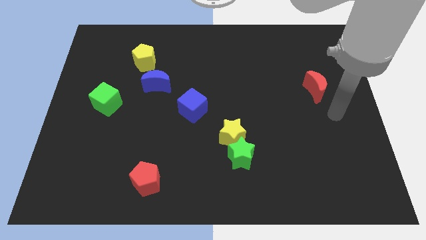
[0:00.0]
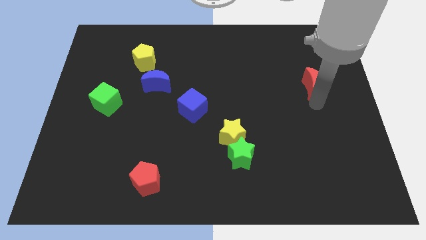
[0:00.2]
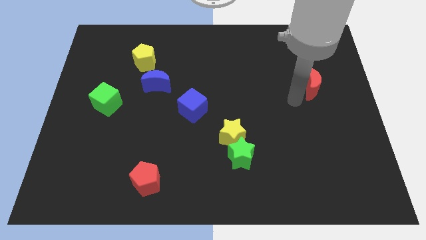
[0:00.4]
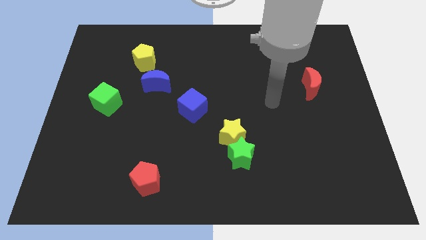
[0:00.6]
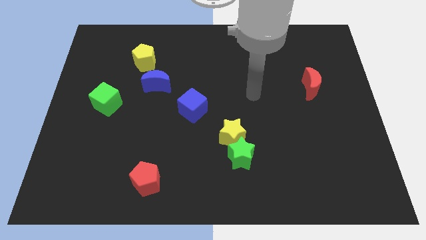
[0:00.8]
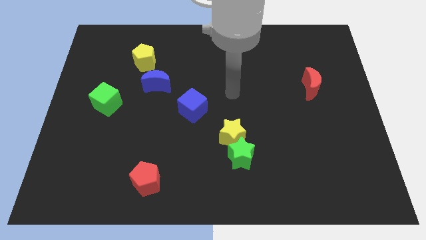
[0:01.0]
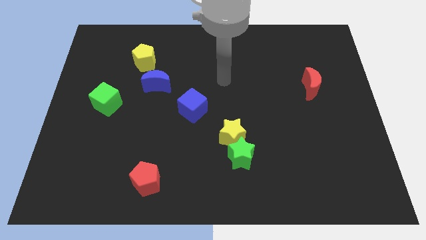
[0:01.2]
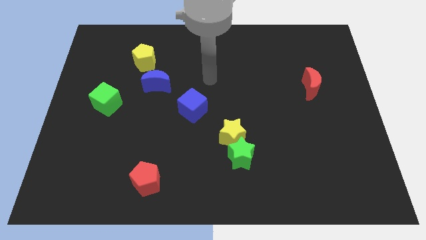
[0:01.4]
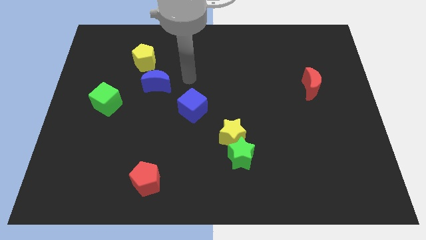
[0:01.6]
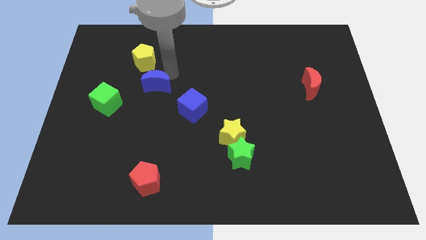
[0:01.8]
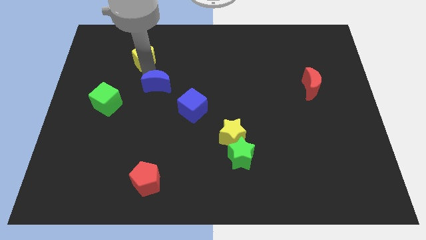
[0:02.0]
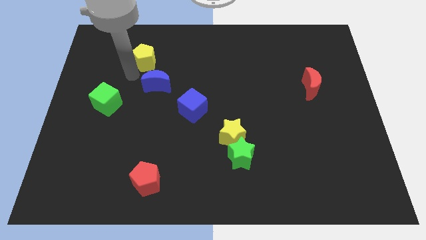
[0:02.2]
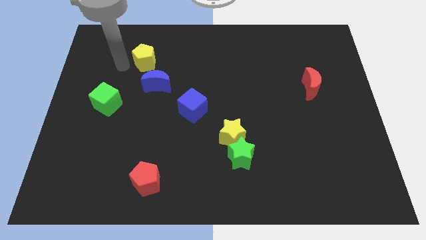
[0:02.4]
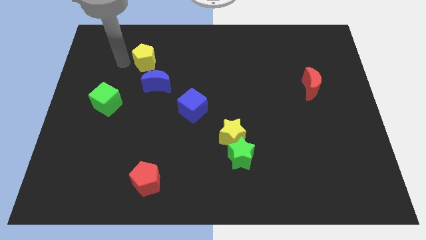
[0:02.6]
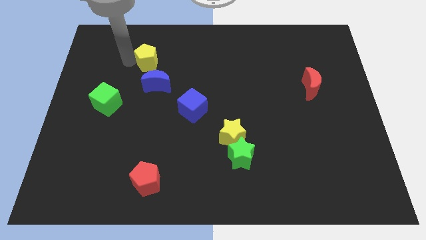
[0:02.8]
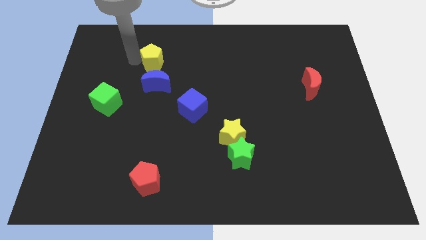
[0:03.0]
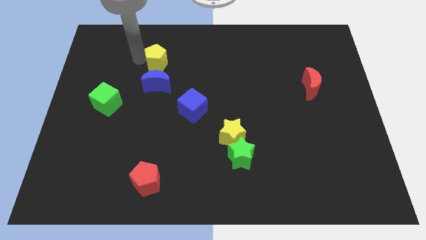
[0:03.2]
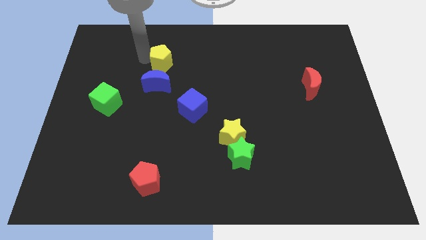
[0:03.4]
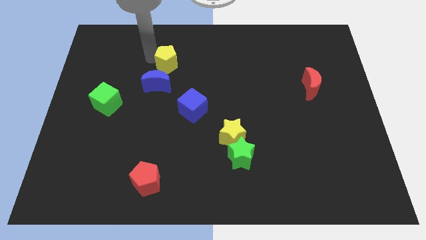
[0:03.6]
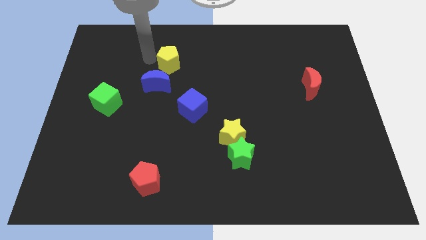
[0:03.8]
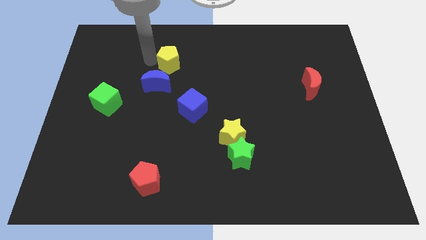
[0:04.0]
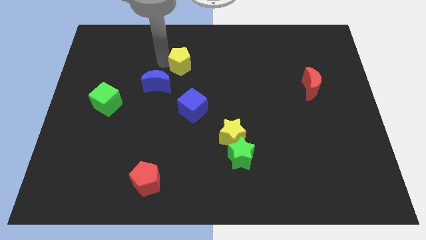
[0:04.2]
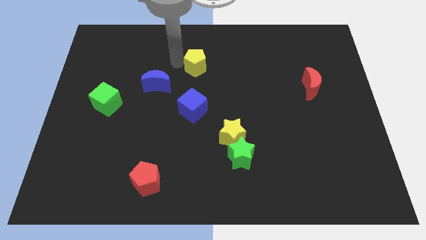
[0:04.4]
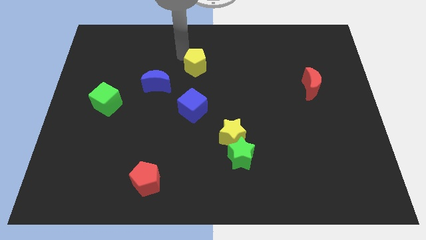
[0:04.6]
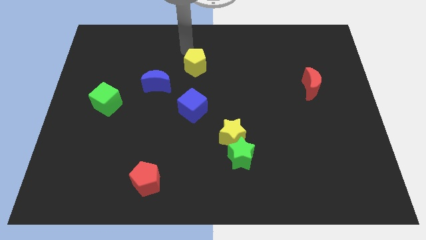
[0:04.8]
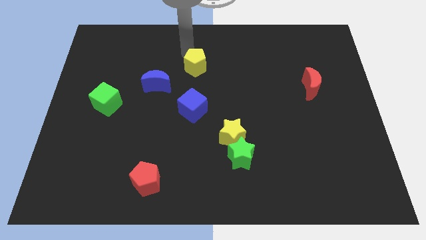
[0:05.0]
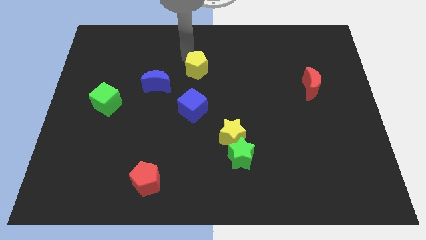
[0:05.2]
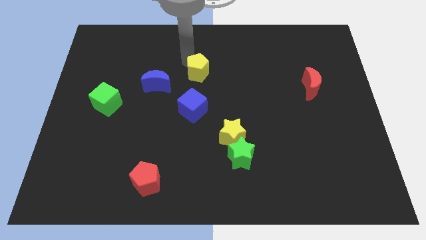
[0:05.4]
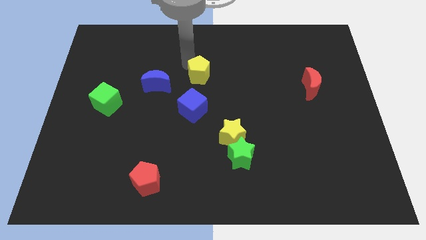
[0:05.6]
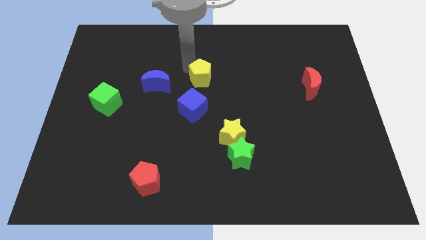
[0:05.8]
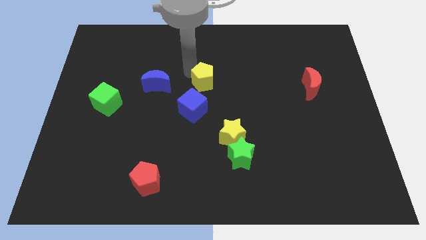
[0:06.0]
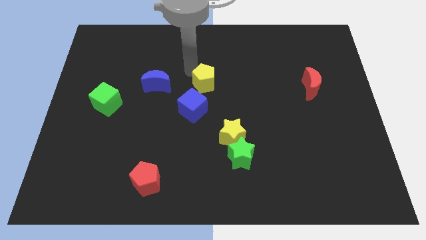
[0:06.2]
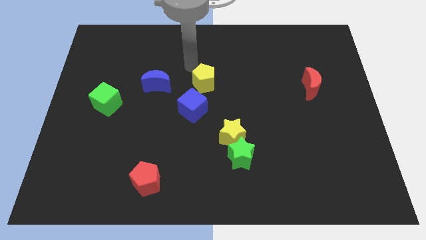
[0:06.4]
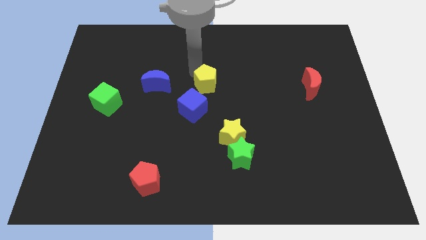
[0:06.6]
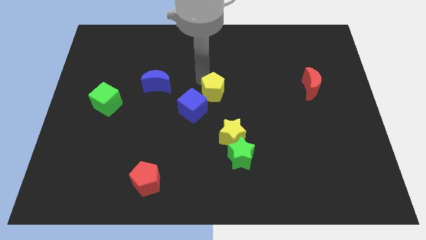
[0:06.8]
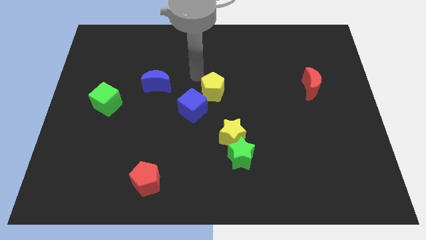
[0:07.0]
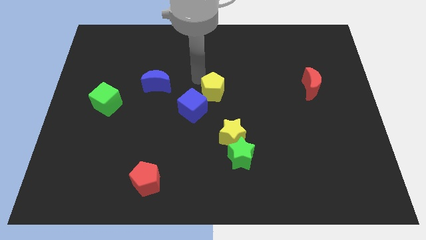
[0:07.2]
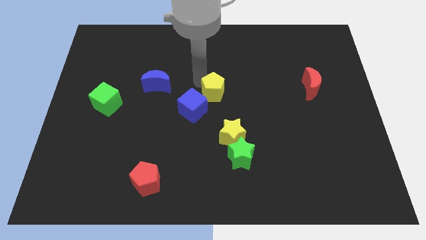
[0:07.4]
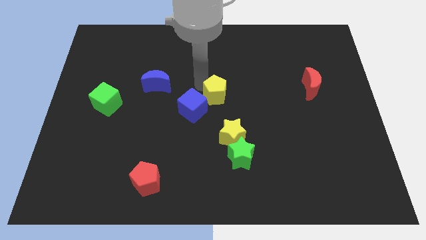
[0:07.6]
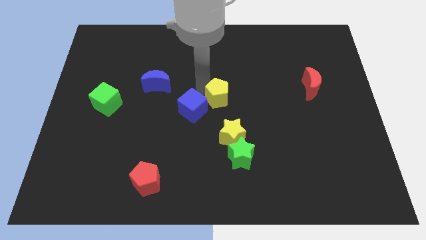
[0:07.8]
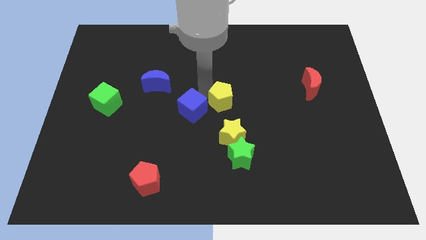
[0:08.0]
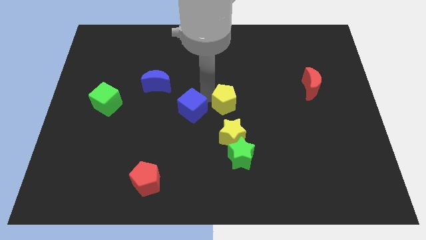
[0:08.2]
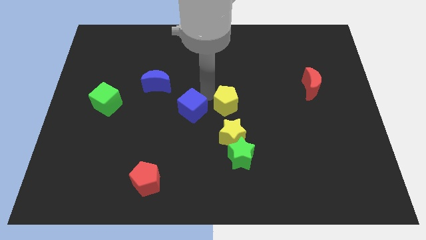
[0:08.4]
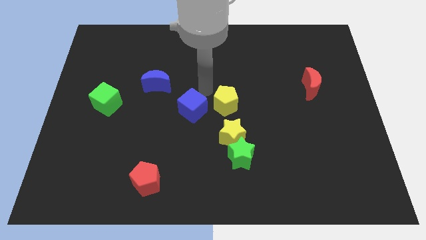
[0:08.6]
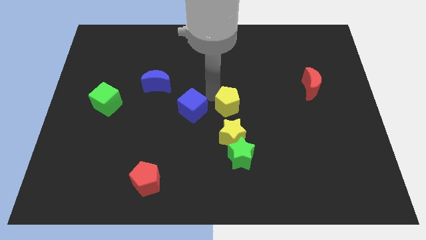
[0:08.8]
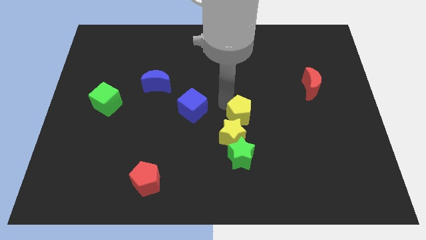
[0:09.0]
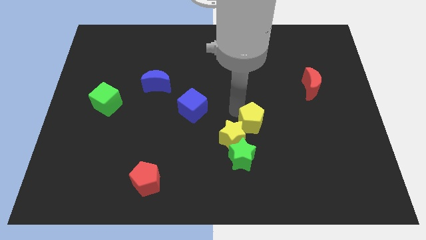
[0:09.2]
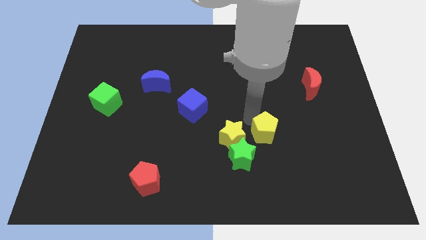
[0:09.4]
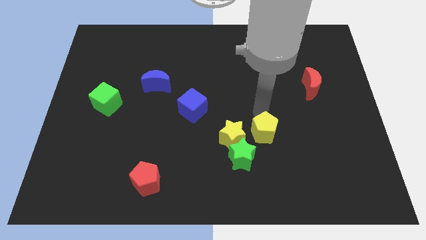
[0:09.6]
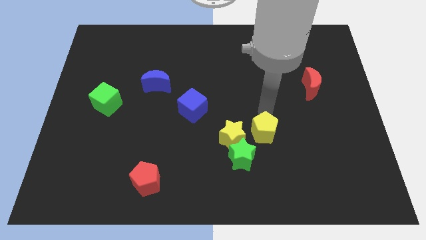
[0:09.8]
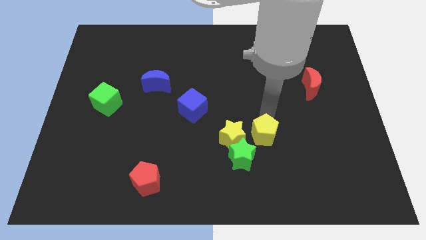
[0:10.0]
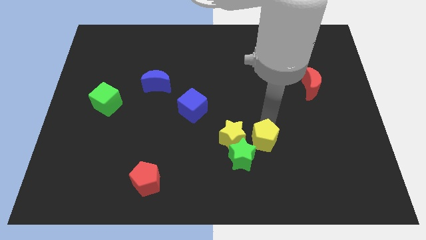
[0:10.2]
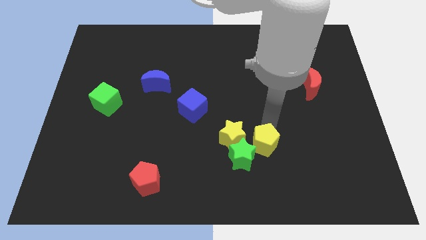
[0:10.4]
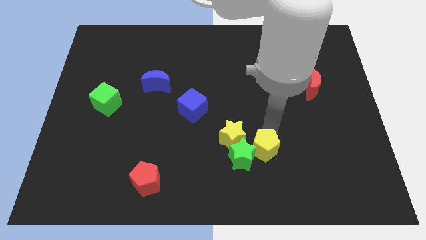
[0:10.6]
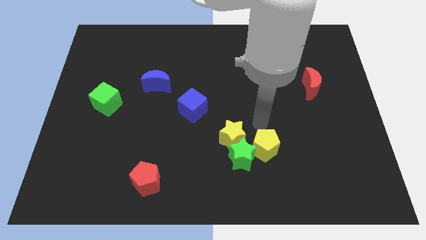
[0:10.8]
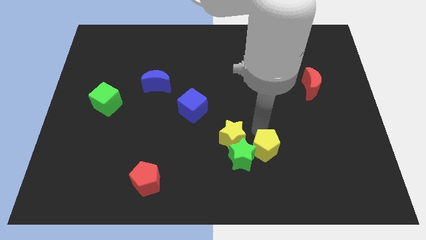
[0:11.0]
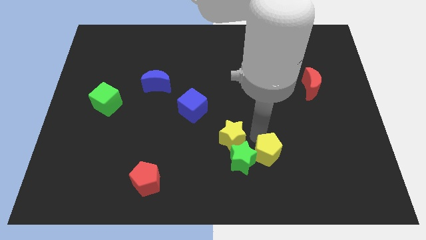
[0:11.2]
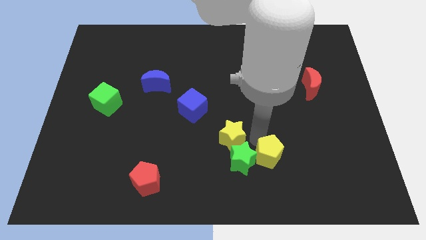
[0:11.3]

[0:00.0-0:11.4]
move the yellow pentagon to the bottom right side of the green star

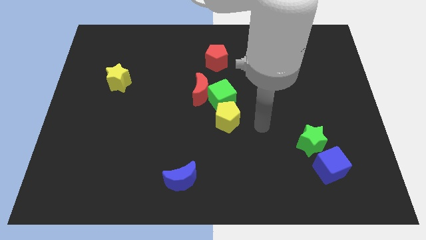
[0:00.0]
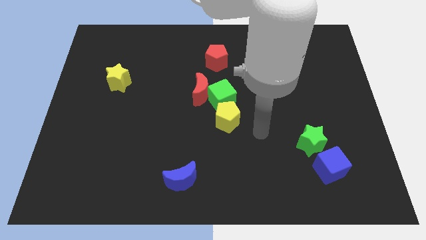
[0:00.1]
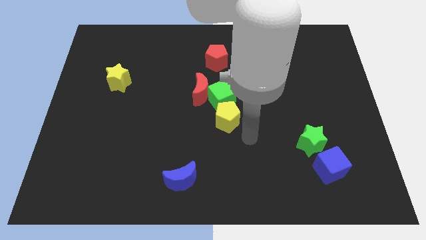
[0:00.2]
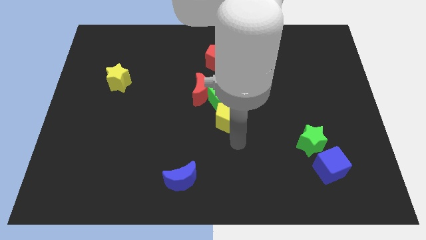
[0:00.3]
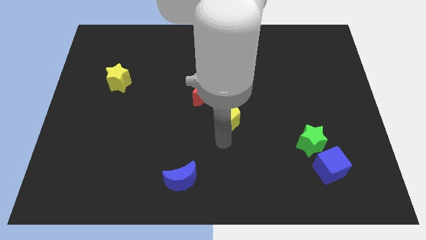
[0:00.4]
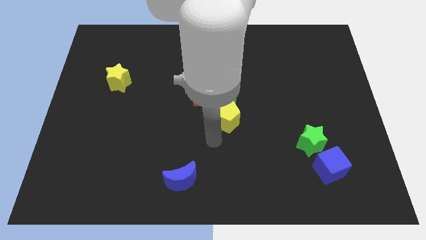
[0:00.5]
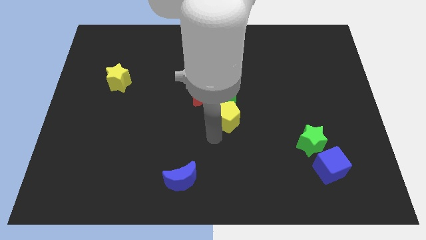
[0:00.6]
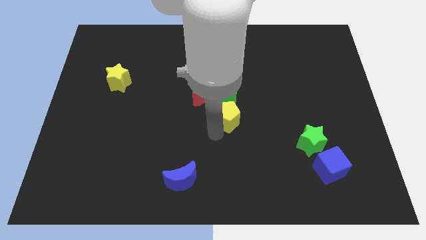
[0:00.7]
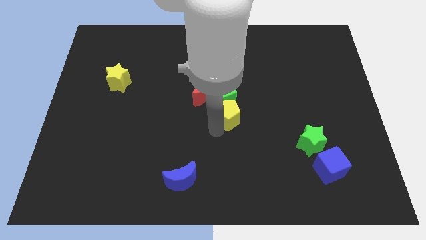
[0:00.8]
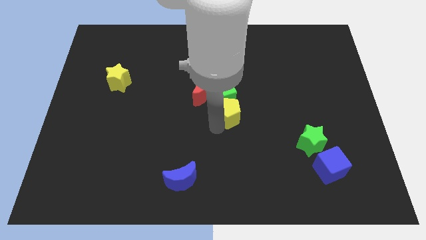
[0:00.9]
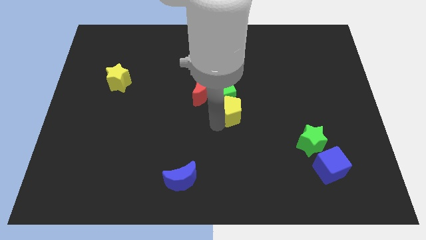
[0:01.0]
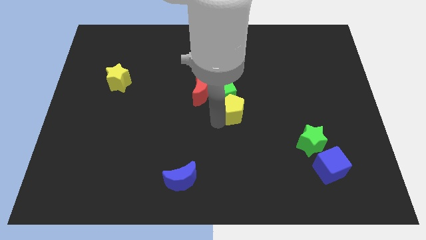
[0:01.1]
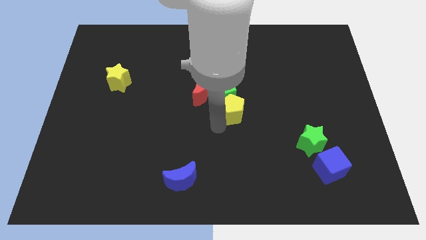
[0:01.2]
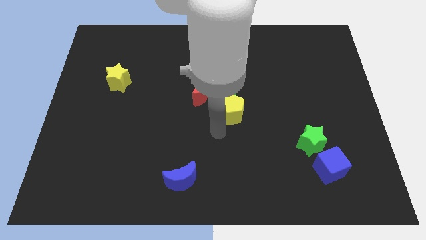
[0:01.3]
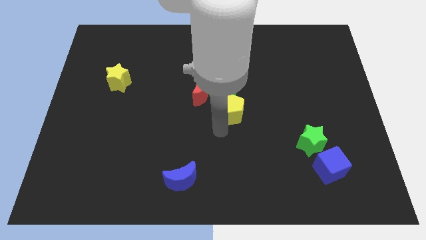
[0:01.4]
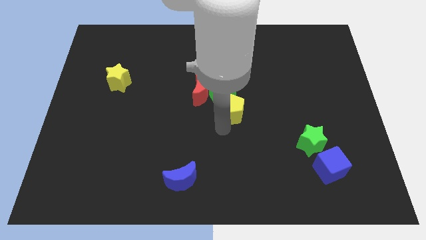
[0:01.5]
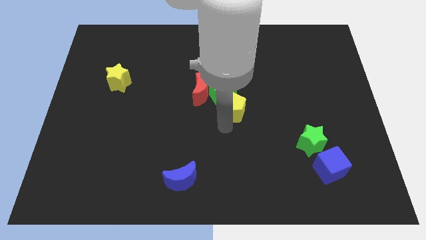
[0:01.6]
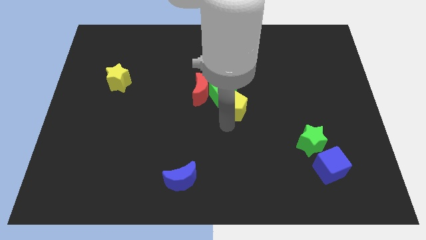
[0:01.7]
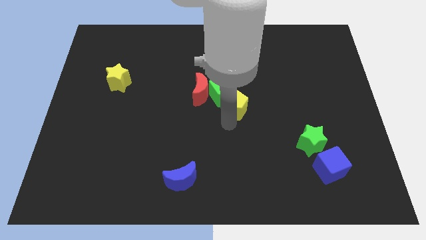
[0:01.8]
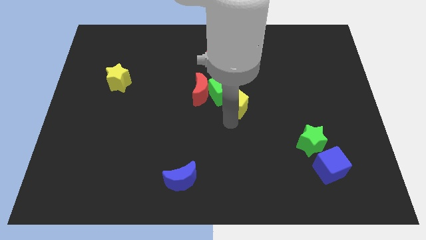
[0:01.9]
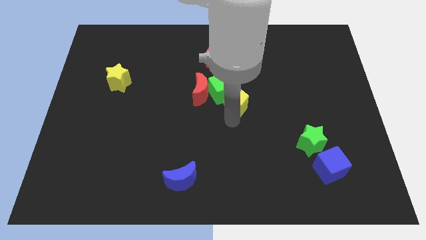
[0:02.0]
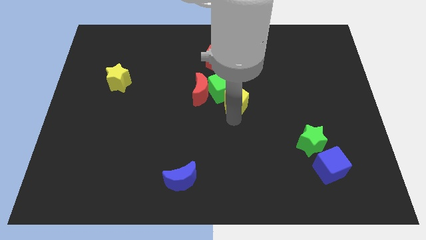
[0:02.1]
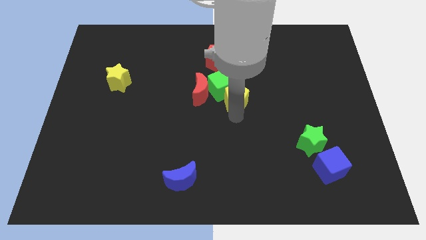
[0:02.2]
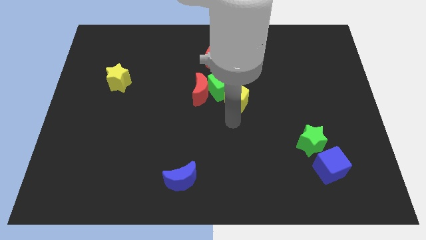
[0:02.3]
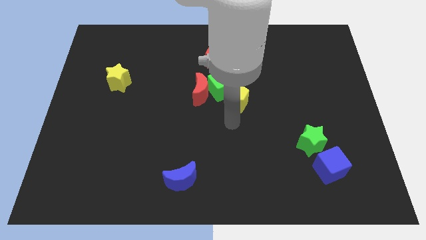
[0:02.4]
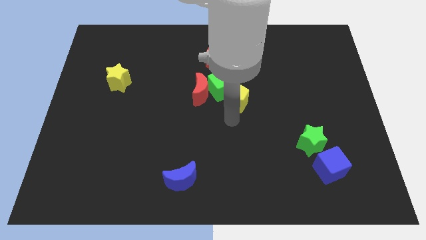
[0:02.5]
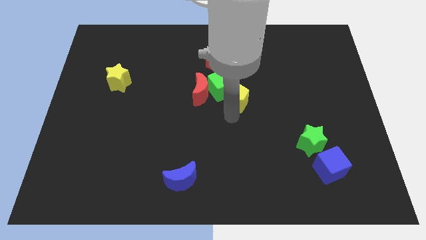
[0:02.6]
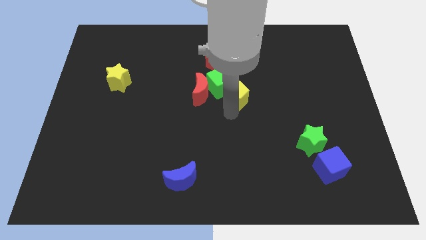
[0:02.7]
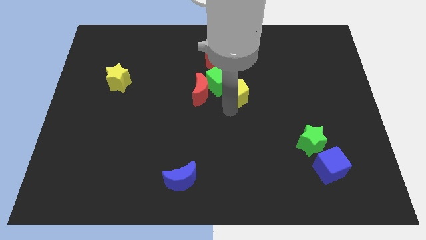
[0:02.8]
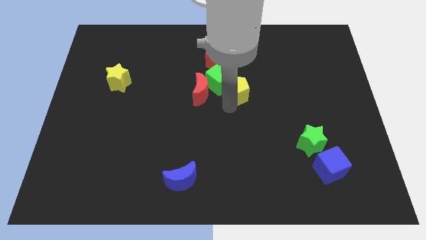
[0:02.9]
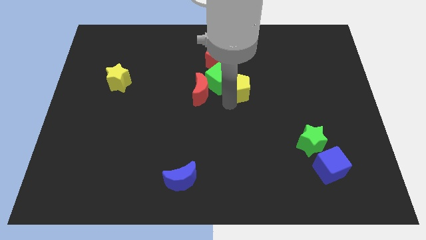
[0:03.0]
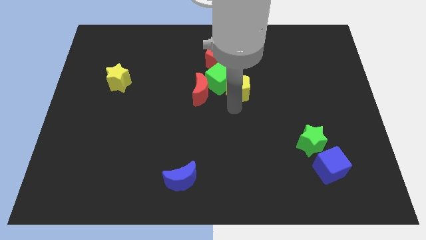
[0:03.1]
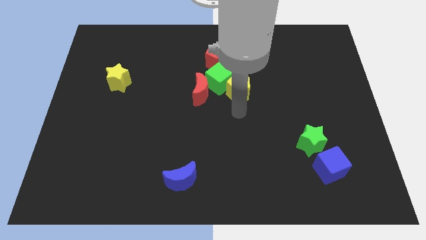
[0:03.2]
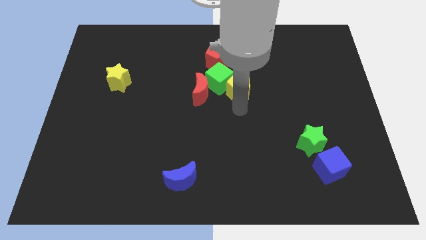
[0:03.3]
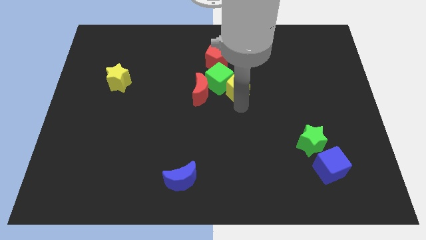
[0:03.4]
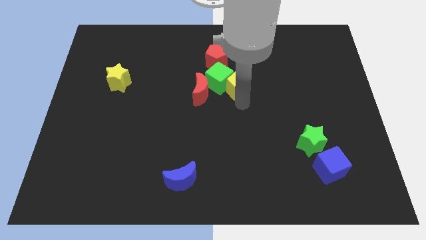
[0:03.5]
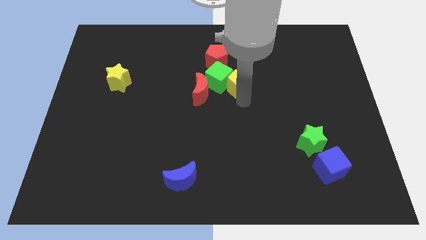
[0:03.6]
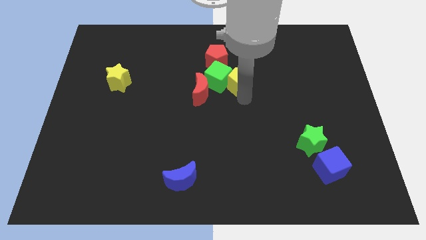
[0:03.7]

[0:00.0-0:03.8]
move the yellow pentagon to the top right side of the green cube
